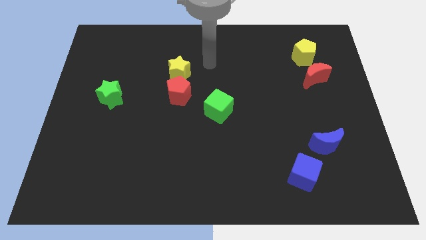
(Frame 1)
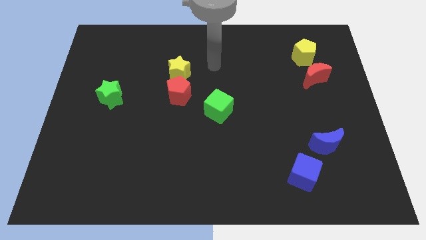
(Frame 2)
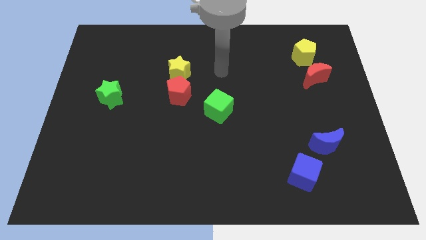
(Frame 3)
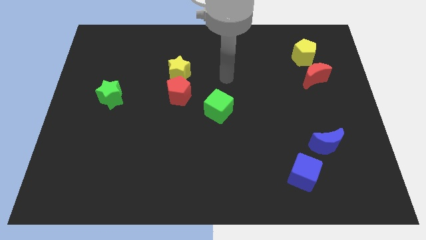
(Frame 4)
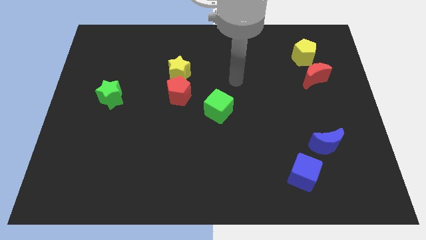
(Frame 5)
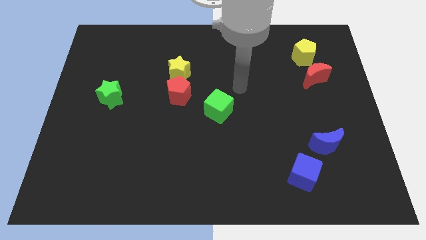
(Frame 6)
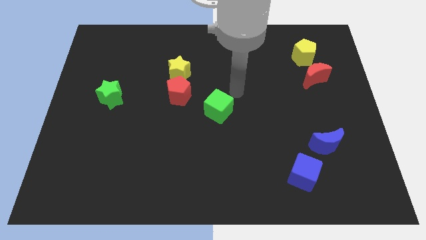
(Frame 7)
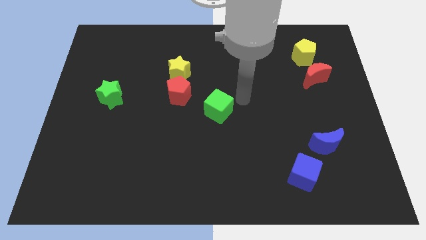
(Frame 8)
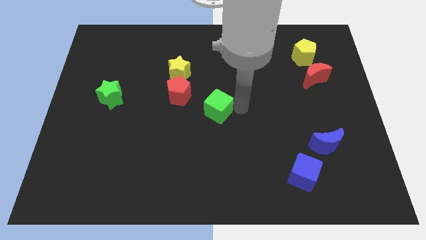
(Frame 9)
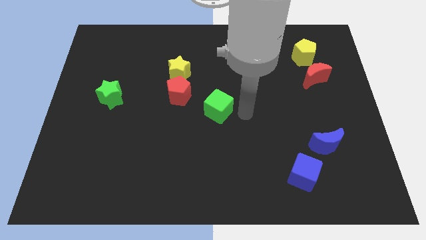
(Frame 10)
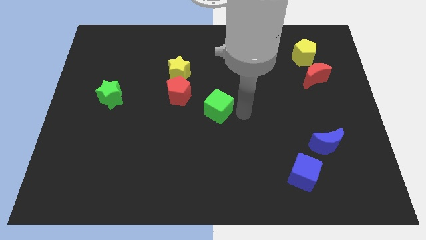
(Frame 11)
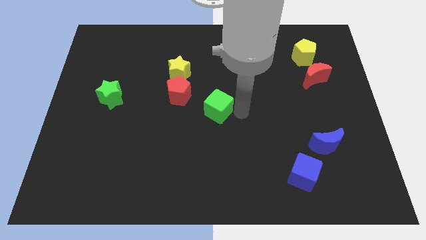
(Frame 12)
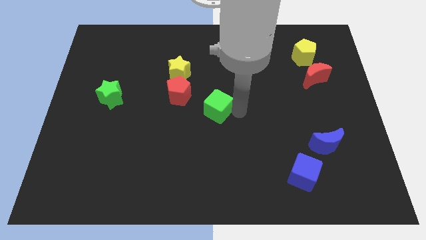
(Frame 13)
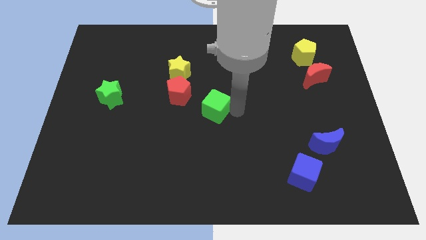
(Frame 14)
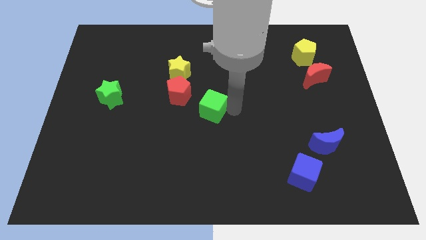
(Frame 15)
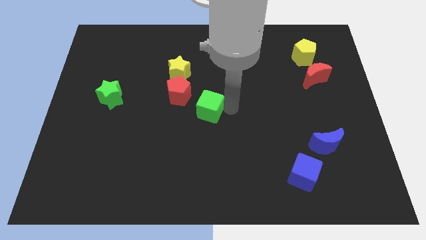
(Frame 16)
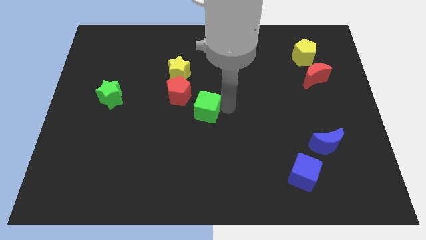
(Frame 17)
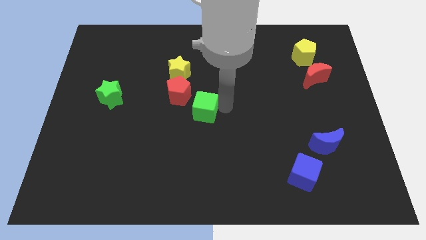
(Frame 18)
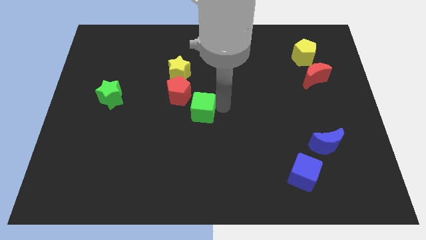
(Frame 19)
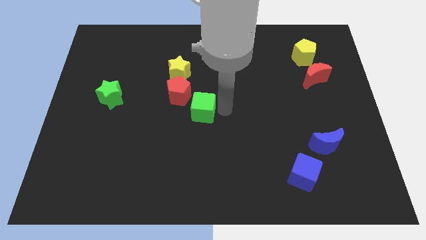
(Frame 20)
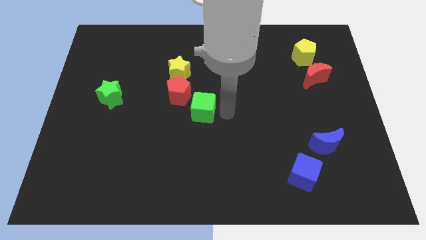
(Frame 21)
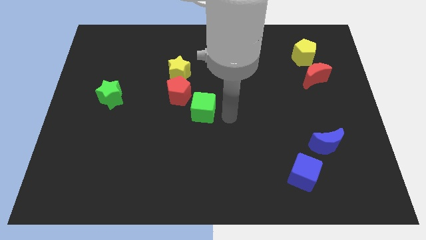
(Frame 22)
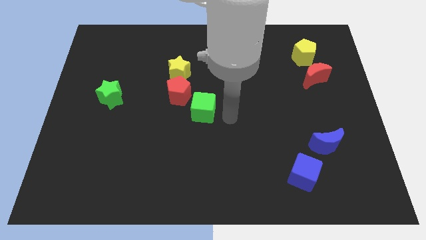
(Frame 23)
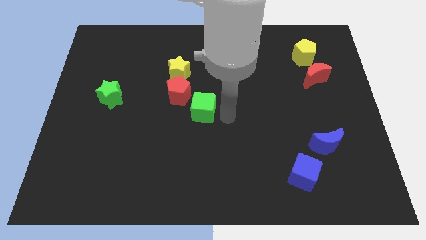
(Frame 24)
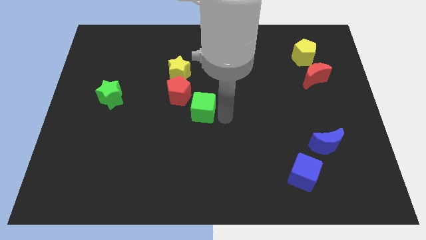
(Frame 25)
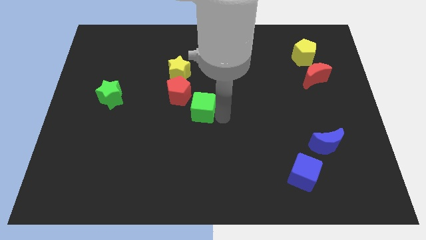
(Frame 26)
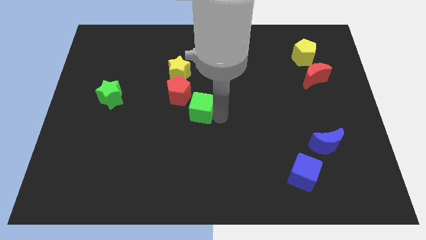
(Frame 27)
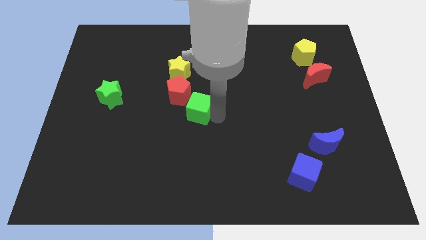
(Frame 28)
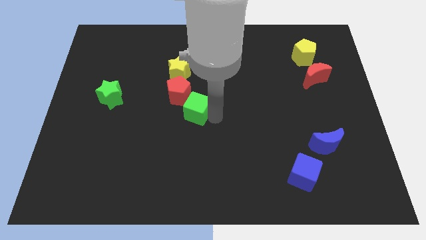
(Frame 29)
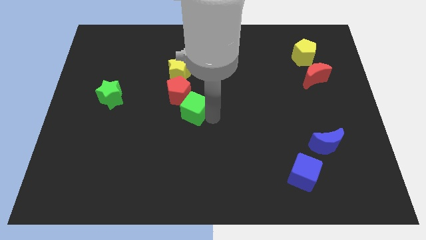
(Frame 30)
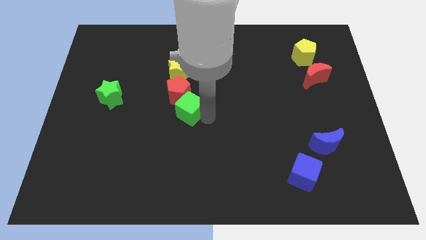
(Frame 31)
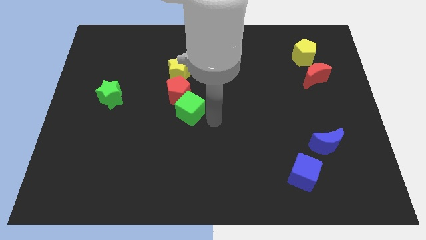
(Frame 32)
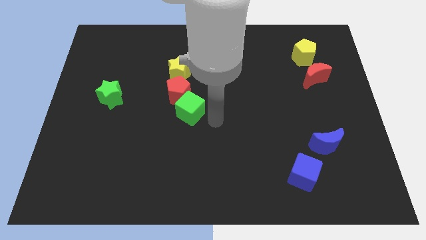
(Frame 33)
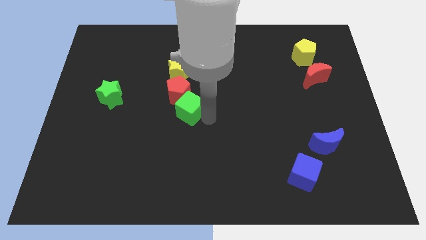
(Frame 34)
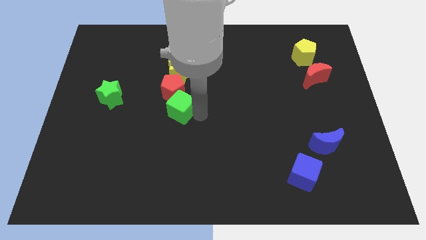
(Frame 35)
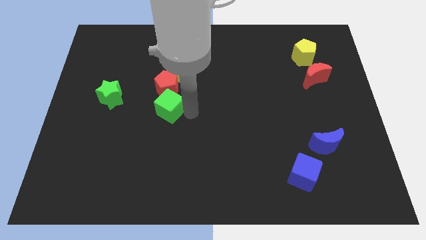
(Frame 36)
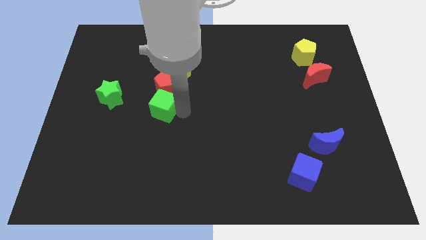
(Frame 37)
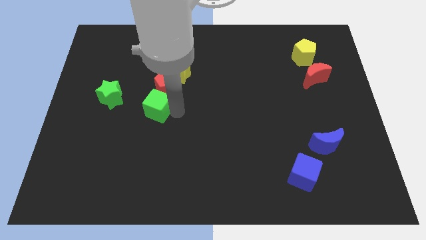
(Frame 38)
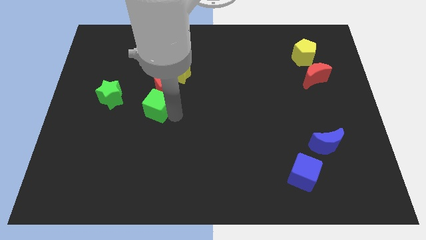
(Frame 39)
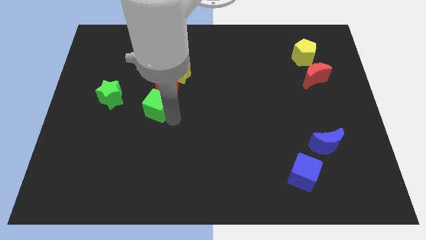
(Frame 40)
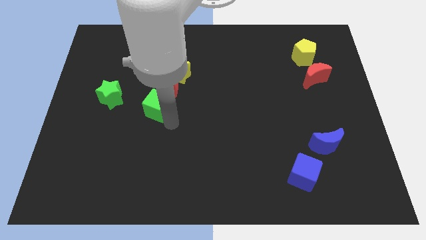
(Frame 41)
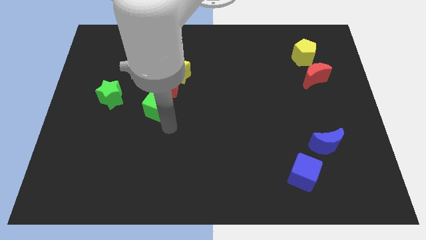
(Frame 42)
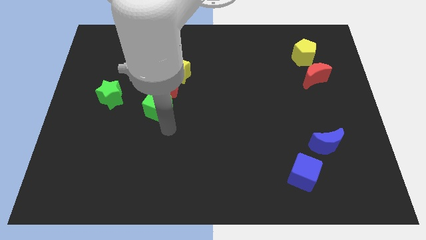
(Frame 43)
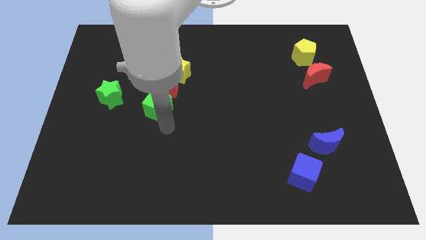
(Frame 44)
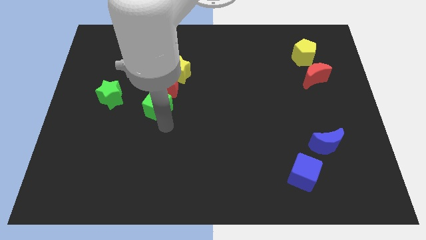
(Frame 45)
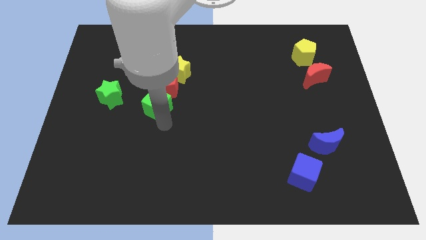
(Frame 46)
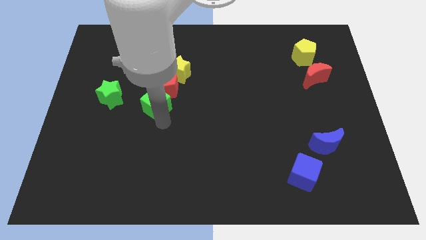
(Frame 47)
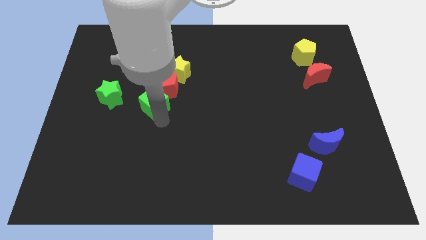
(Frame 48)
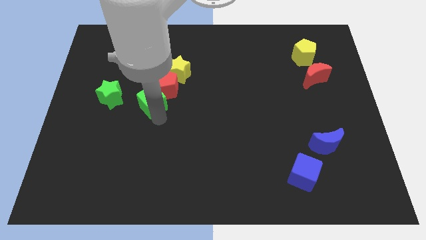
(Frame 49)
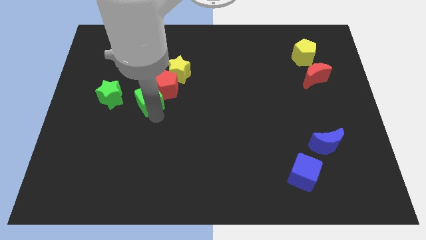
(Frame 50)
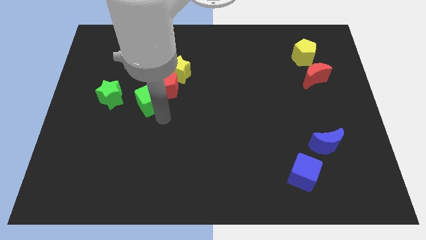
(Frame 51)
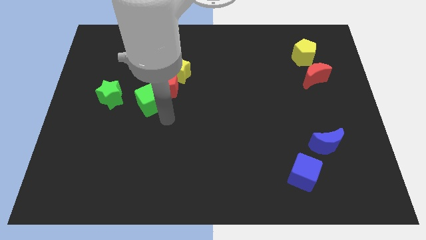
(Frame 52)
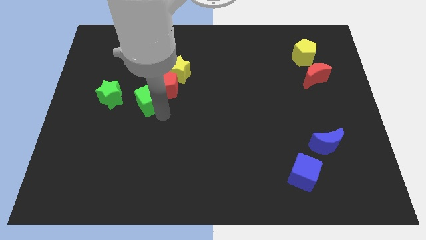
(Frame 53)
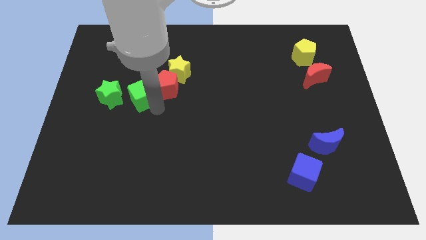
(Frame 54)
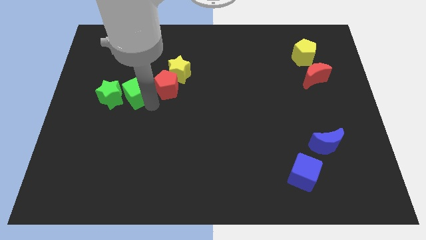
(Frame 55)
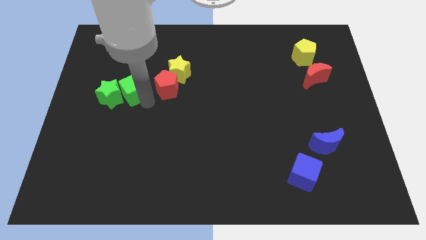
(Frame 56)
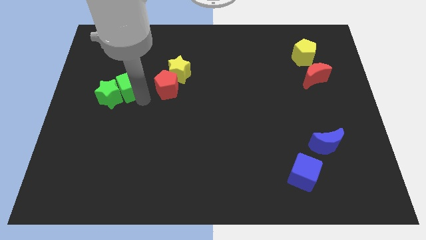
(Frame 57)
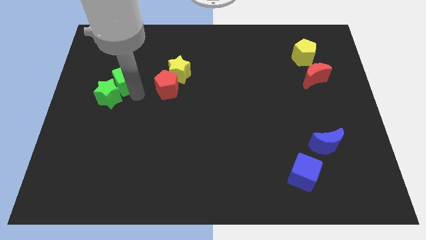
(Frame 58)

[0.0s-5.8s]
move the green cube to the top side of the green star

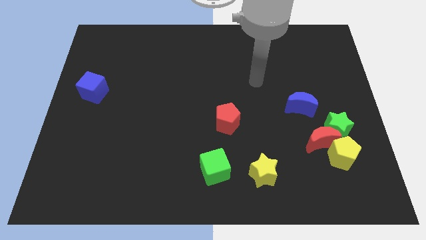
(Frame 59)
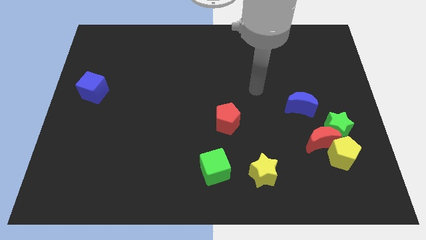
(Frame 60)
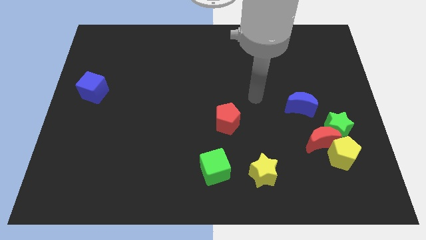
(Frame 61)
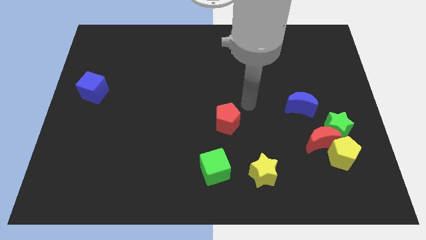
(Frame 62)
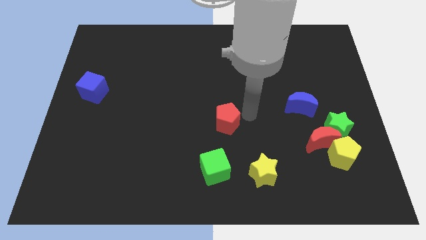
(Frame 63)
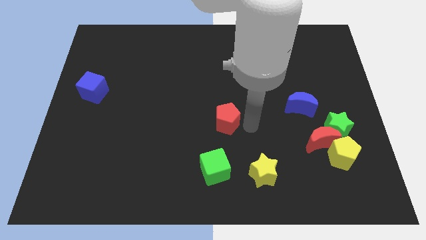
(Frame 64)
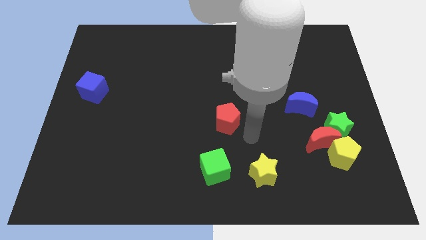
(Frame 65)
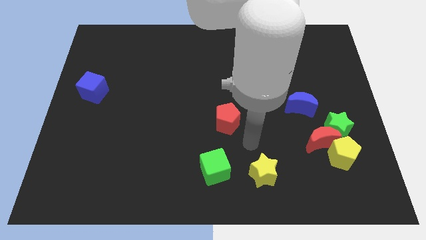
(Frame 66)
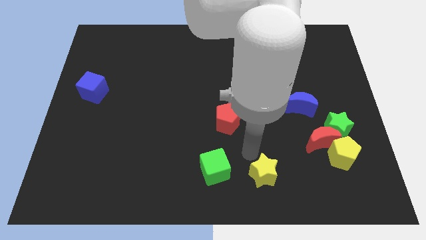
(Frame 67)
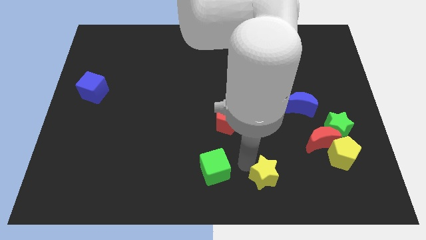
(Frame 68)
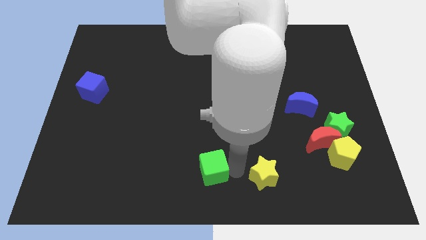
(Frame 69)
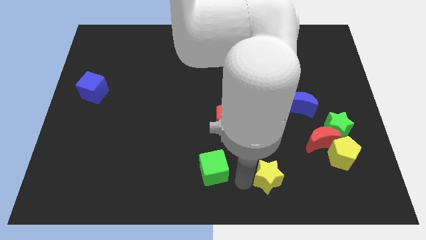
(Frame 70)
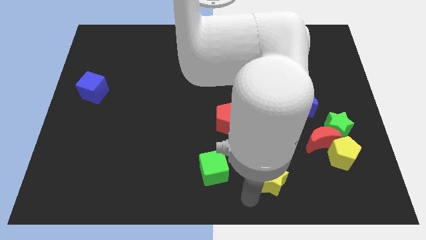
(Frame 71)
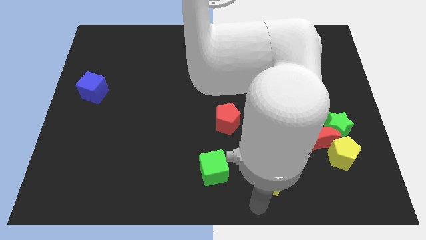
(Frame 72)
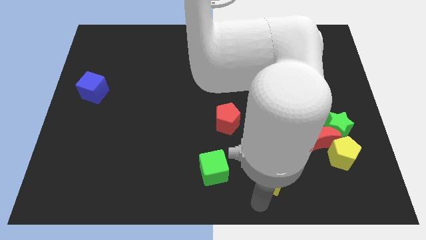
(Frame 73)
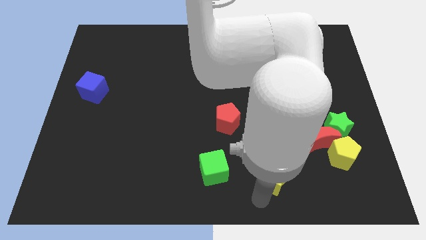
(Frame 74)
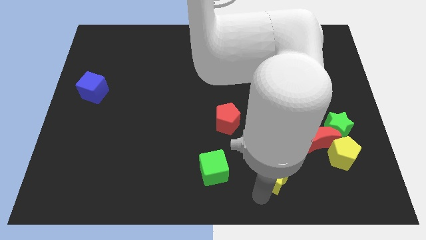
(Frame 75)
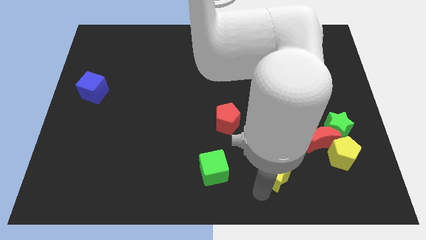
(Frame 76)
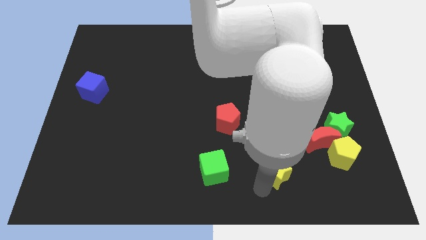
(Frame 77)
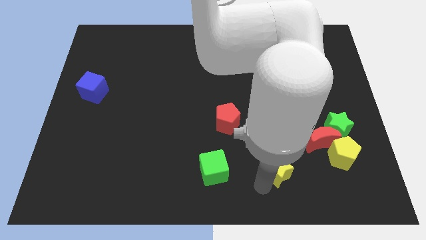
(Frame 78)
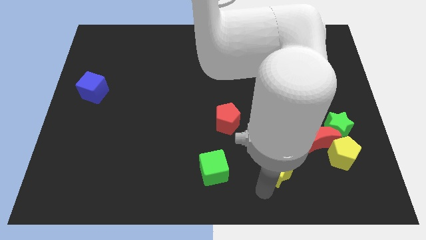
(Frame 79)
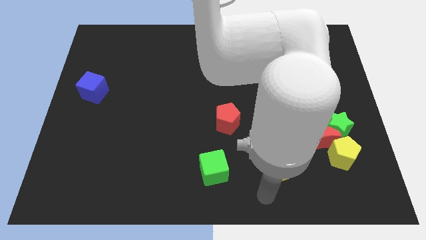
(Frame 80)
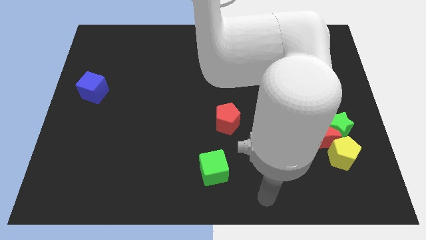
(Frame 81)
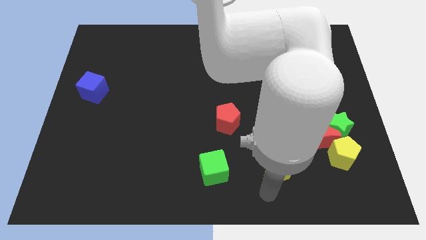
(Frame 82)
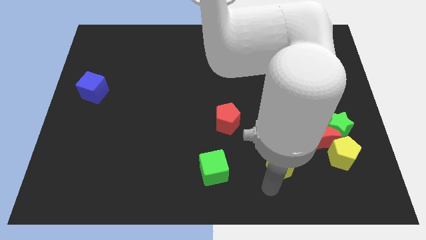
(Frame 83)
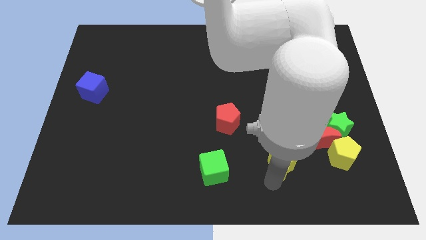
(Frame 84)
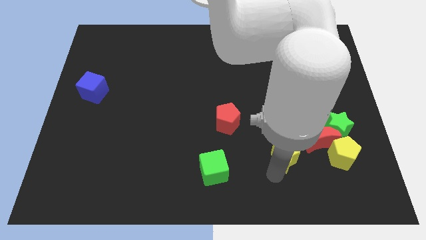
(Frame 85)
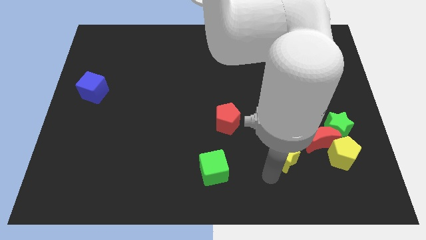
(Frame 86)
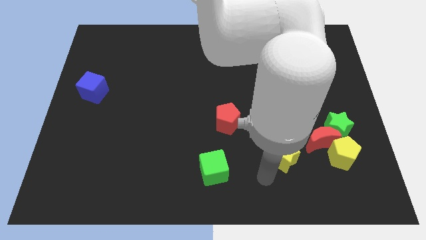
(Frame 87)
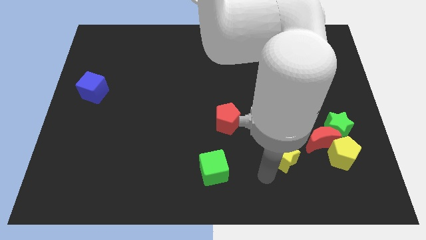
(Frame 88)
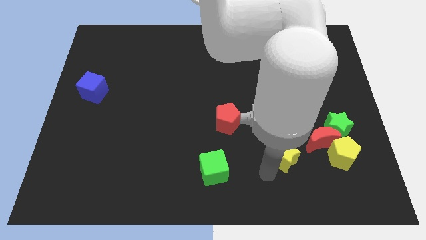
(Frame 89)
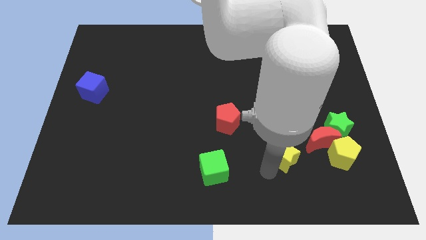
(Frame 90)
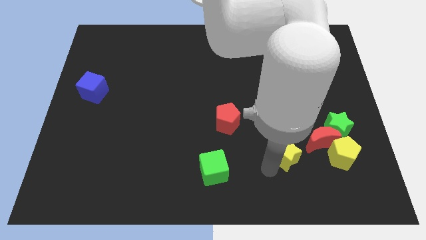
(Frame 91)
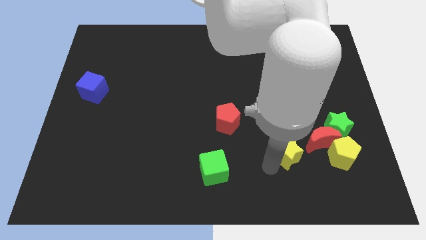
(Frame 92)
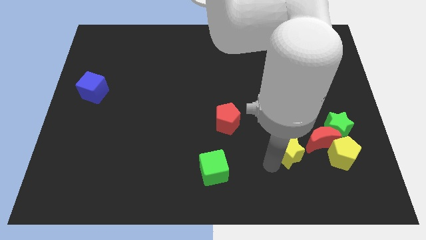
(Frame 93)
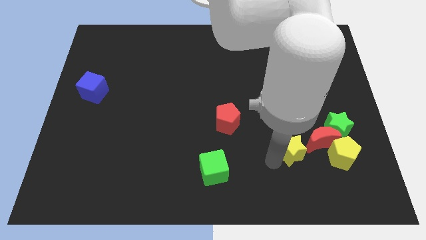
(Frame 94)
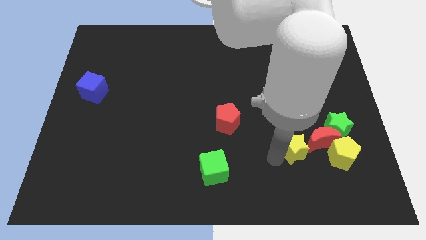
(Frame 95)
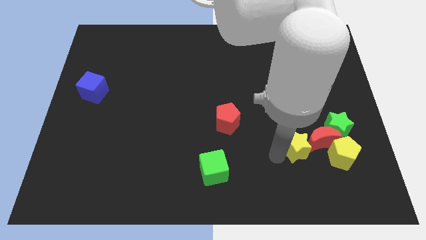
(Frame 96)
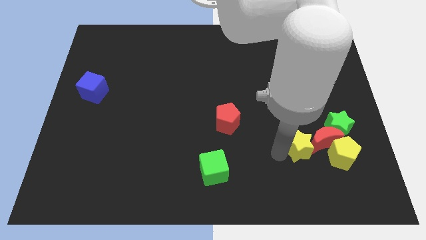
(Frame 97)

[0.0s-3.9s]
slide the yellow star to the top left of the yellow pentagon
